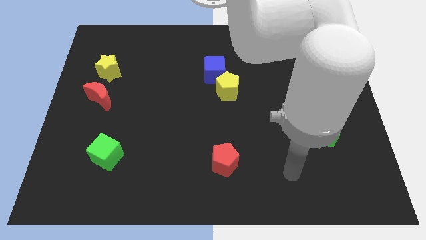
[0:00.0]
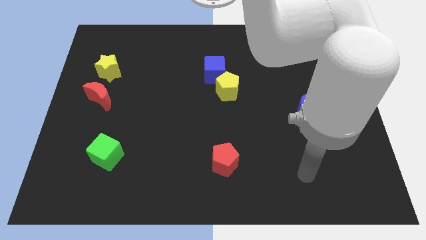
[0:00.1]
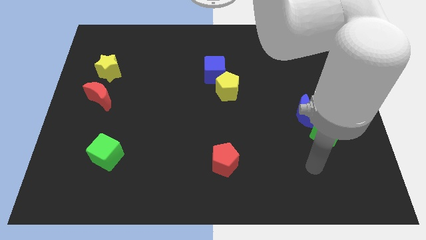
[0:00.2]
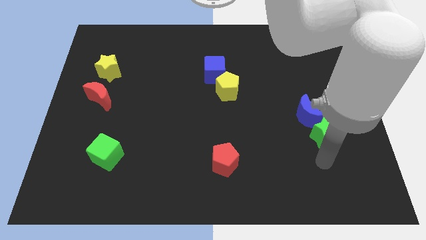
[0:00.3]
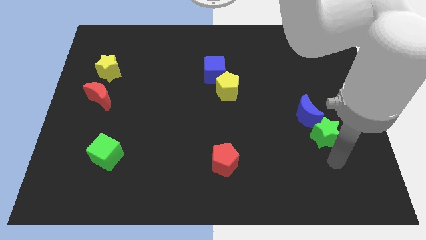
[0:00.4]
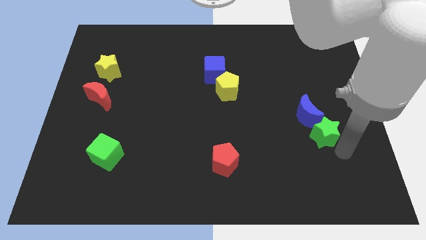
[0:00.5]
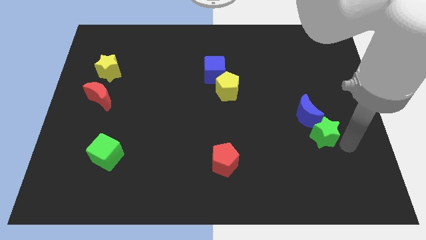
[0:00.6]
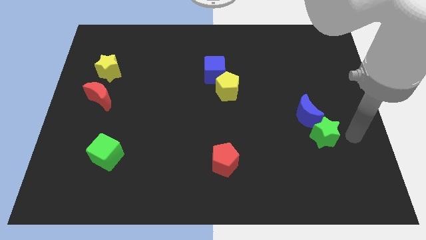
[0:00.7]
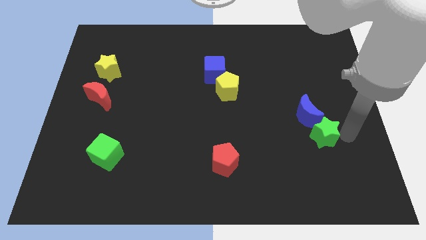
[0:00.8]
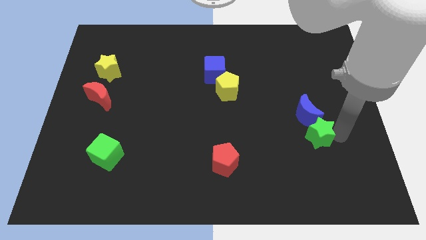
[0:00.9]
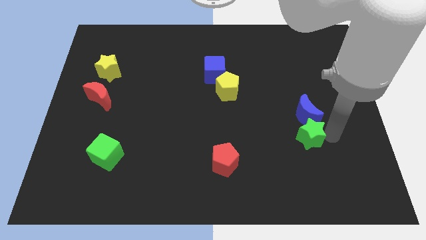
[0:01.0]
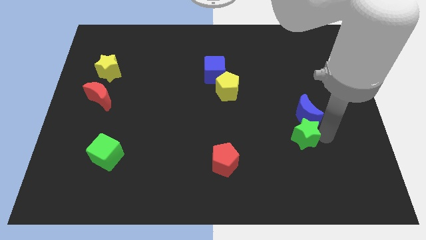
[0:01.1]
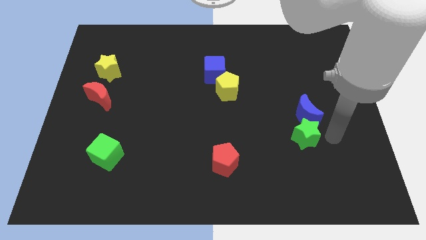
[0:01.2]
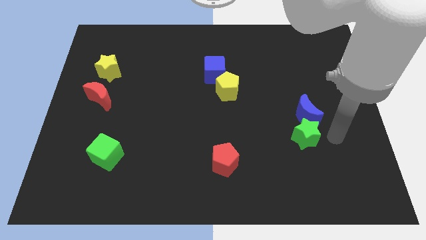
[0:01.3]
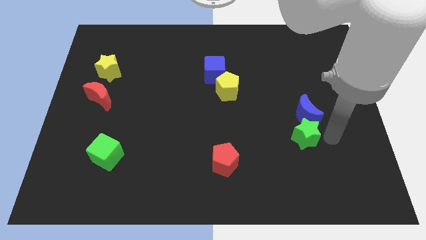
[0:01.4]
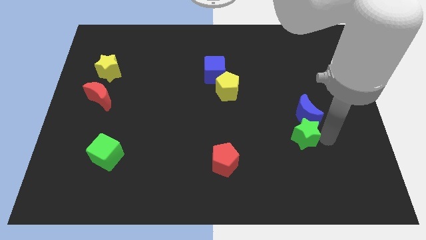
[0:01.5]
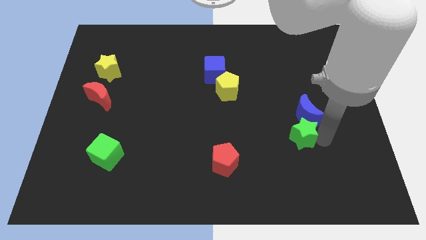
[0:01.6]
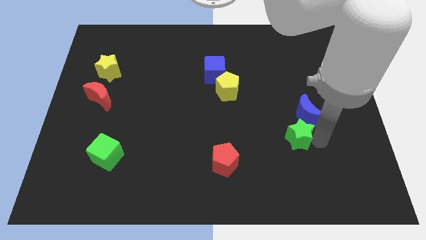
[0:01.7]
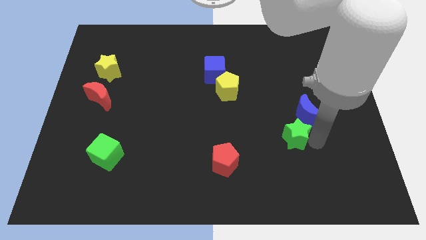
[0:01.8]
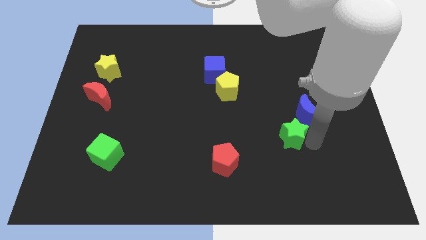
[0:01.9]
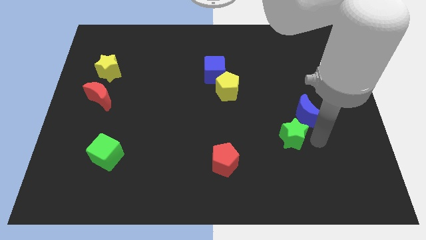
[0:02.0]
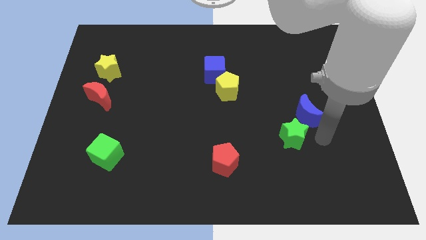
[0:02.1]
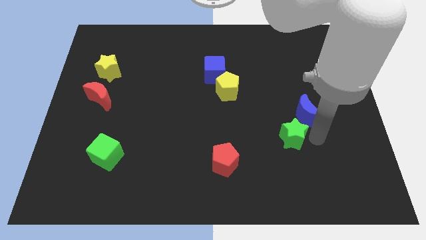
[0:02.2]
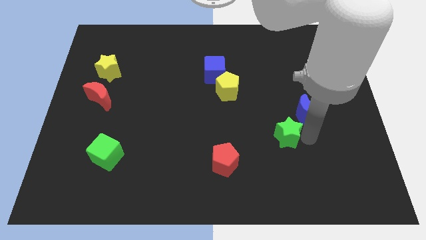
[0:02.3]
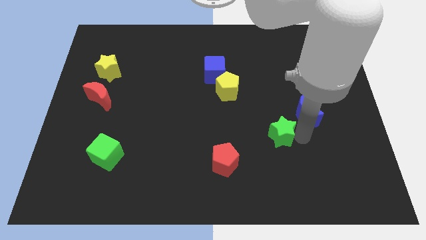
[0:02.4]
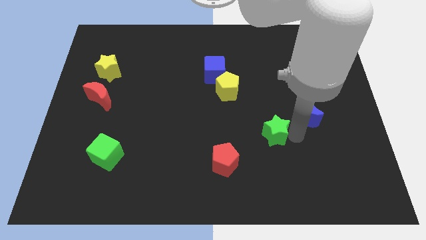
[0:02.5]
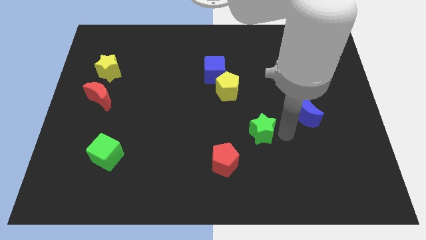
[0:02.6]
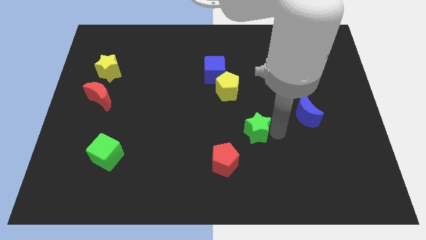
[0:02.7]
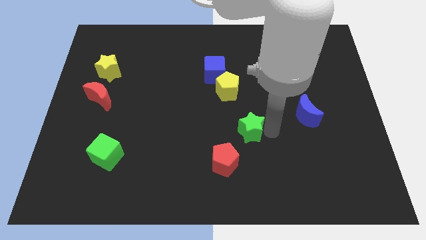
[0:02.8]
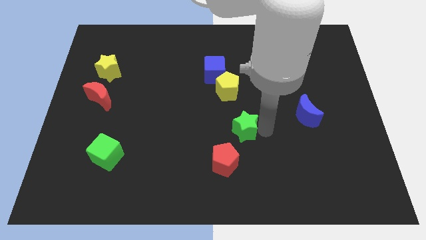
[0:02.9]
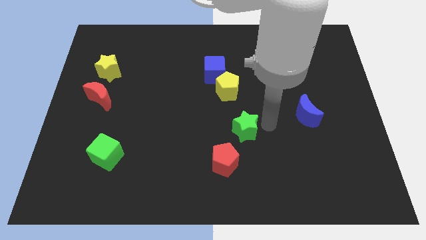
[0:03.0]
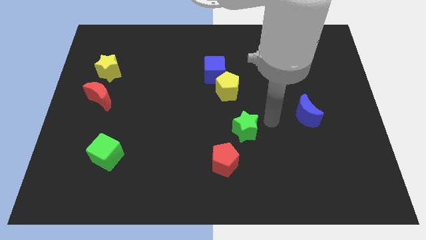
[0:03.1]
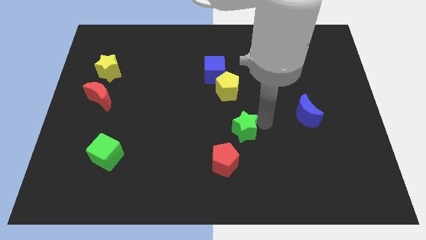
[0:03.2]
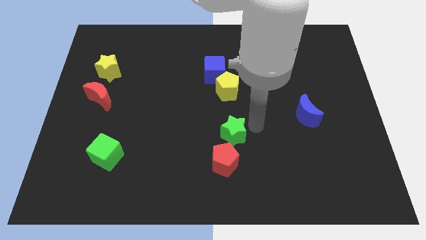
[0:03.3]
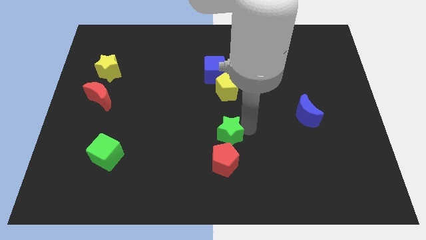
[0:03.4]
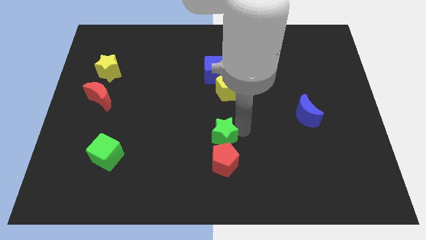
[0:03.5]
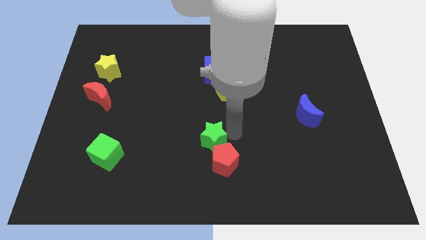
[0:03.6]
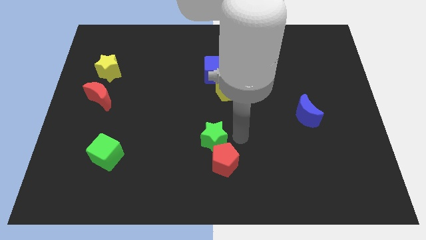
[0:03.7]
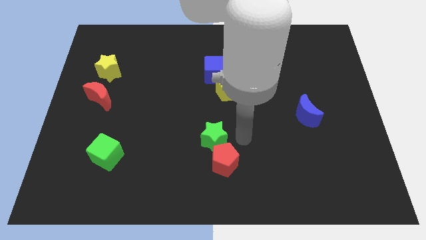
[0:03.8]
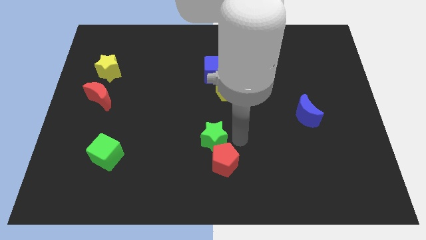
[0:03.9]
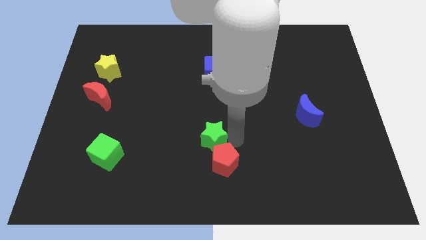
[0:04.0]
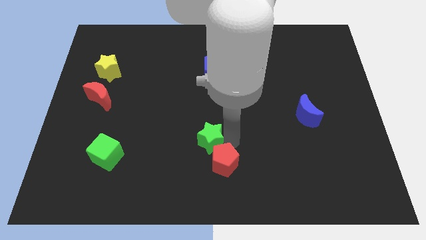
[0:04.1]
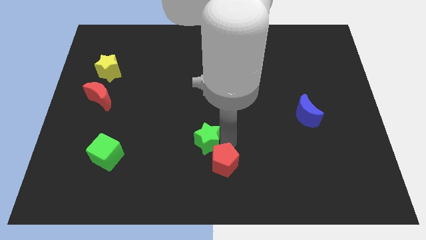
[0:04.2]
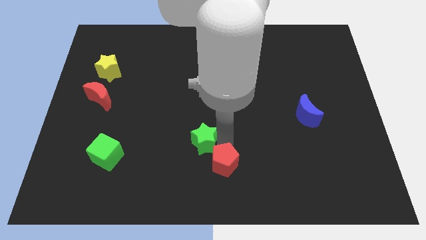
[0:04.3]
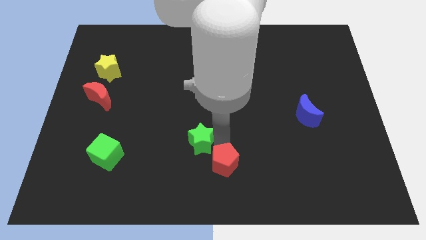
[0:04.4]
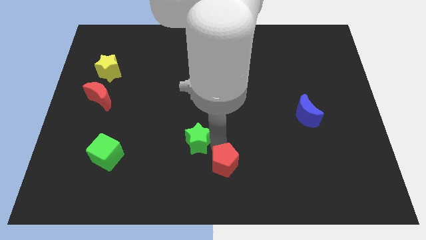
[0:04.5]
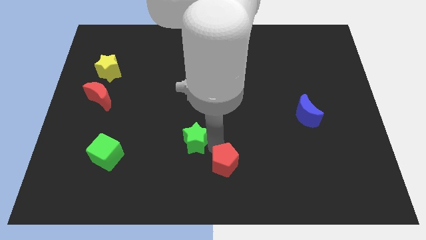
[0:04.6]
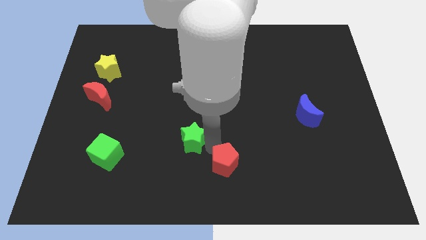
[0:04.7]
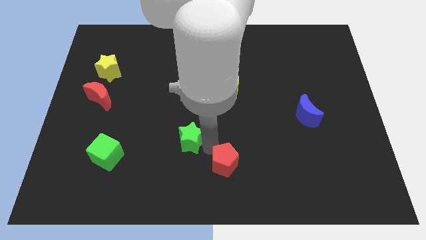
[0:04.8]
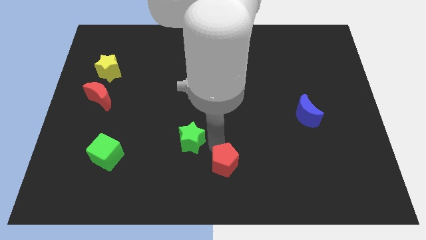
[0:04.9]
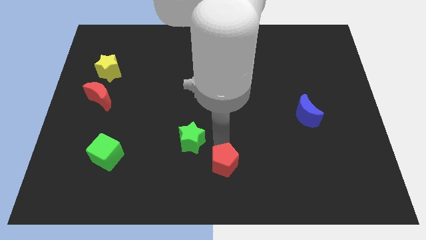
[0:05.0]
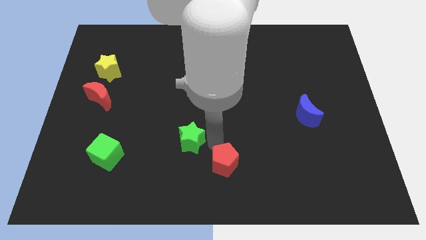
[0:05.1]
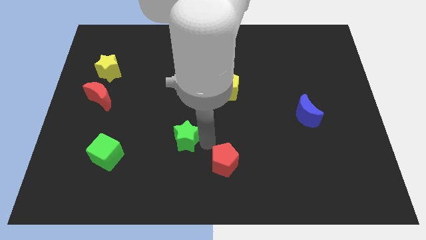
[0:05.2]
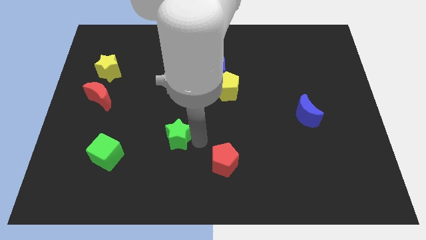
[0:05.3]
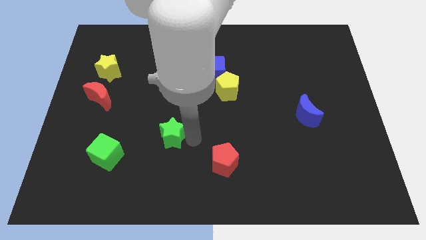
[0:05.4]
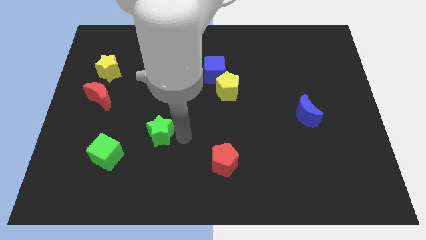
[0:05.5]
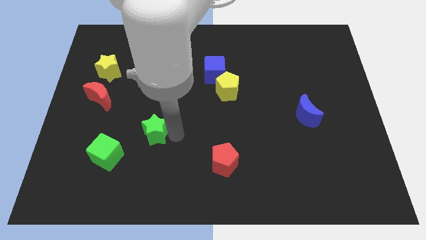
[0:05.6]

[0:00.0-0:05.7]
put the green star to the top right side of the green cube

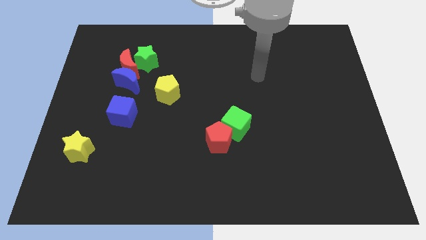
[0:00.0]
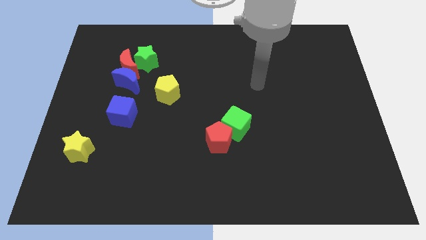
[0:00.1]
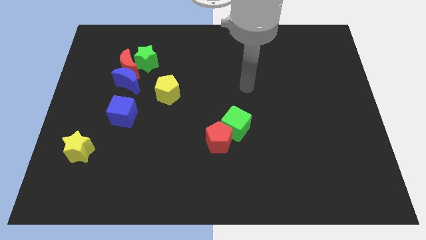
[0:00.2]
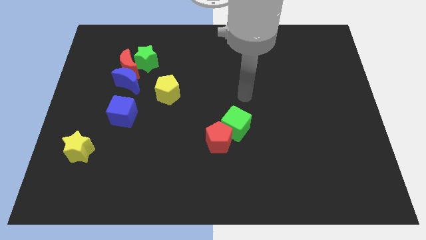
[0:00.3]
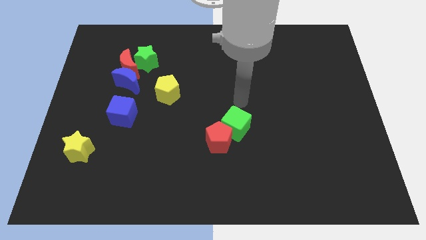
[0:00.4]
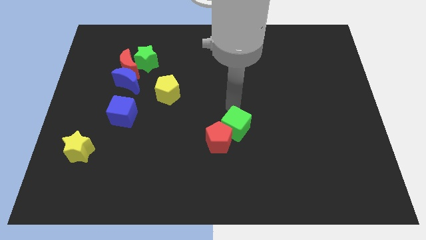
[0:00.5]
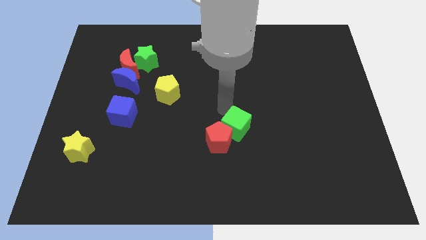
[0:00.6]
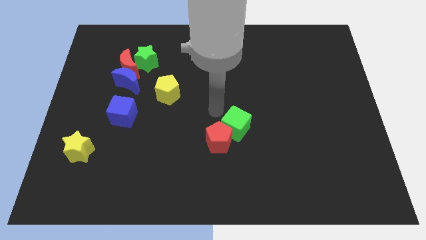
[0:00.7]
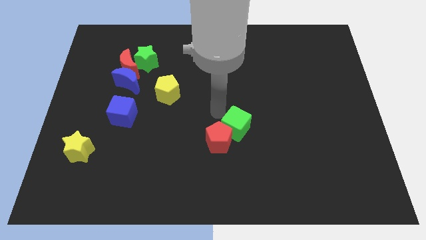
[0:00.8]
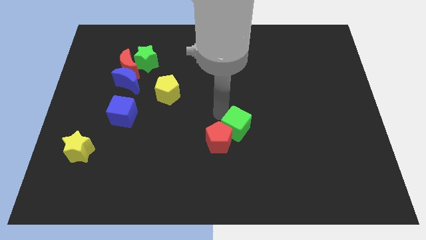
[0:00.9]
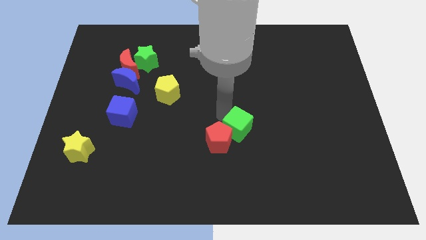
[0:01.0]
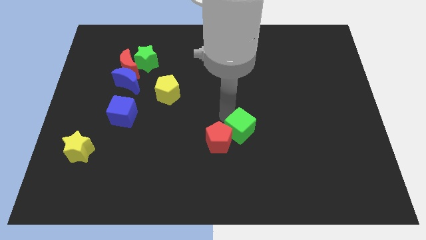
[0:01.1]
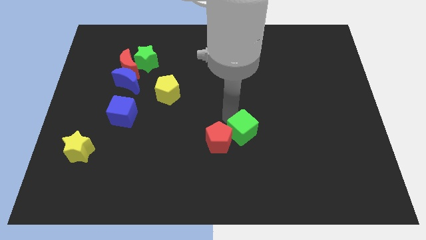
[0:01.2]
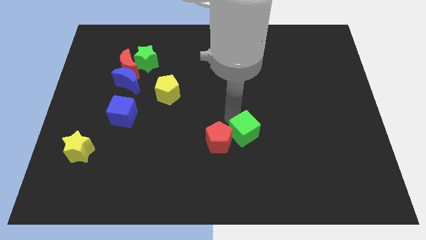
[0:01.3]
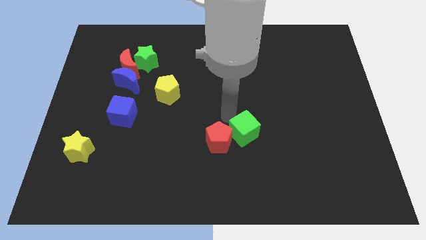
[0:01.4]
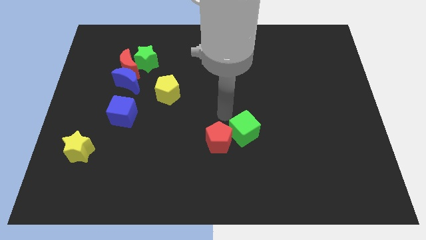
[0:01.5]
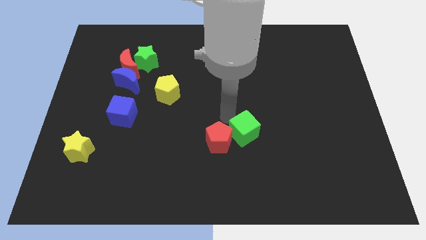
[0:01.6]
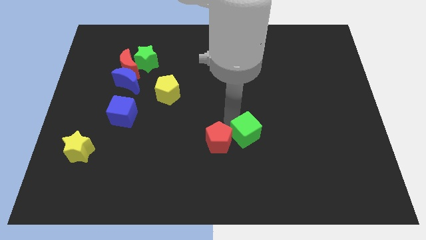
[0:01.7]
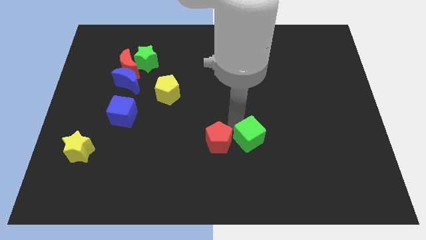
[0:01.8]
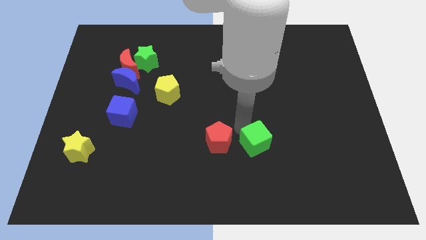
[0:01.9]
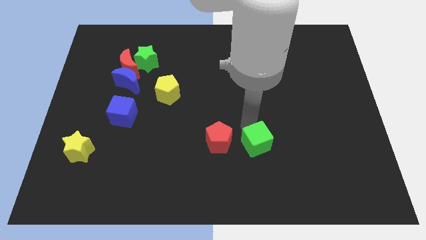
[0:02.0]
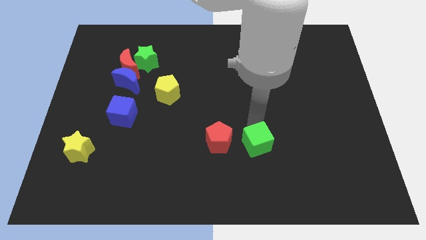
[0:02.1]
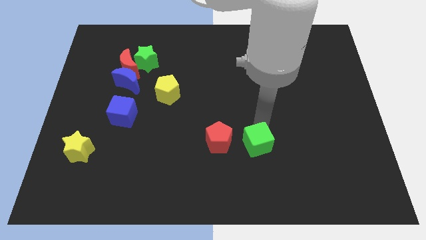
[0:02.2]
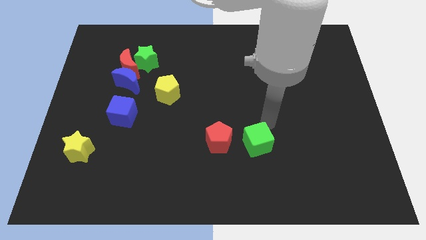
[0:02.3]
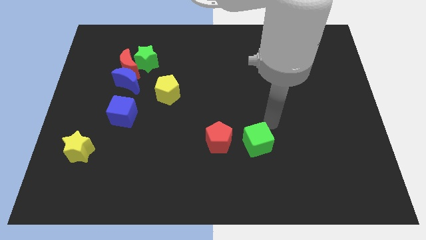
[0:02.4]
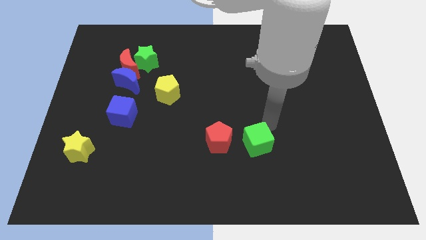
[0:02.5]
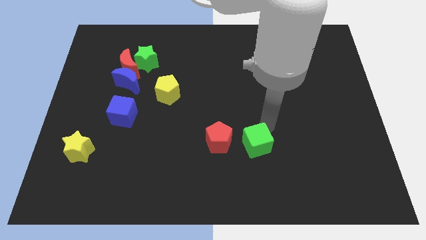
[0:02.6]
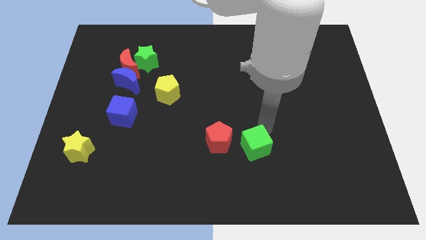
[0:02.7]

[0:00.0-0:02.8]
slide the green cube diagonally down and to the right of the red pentagon
